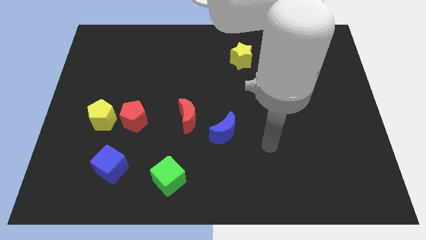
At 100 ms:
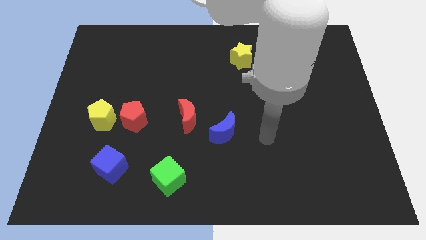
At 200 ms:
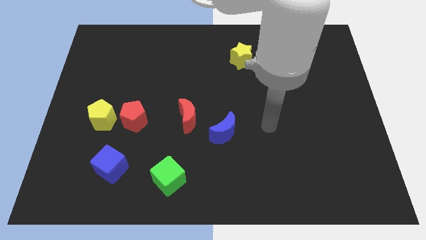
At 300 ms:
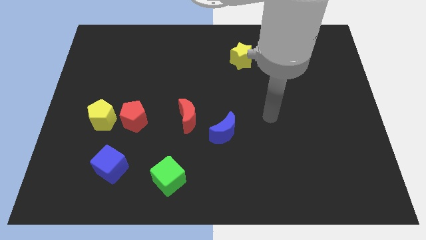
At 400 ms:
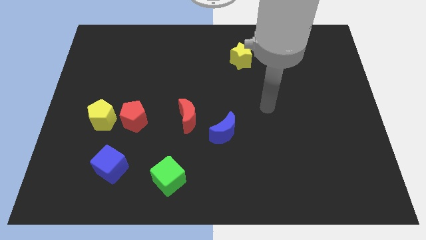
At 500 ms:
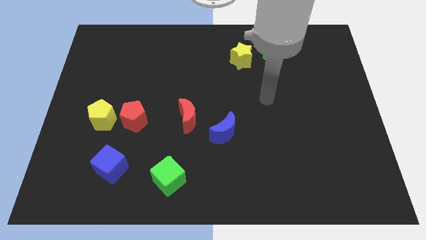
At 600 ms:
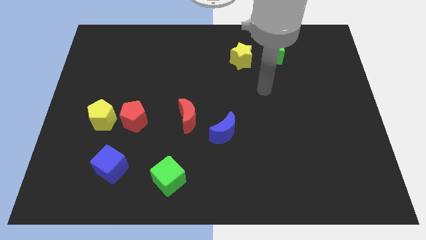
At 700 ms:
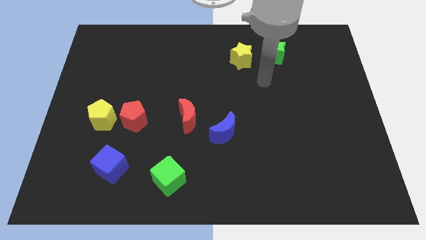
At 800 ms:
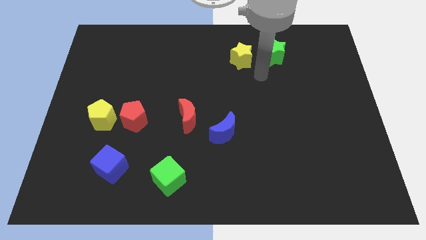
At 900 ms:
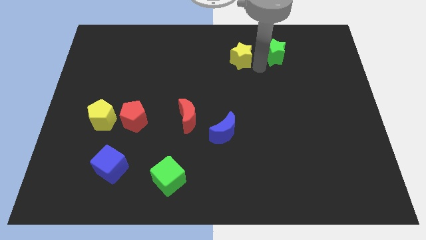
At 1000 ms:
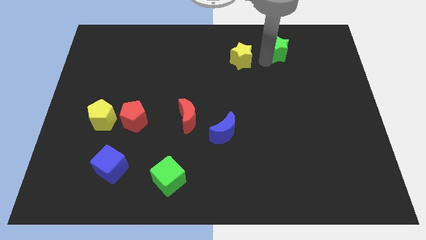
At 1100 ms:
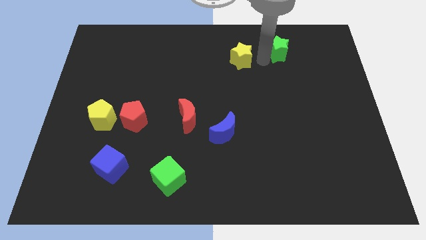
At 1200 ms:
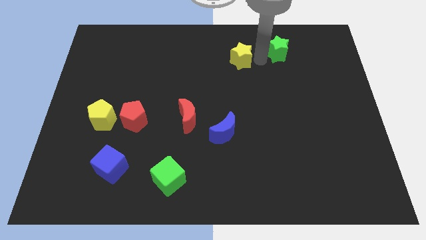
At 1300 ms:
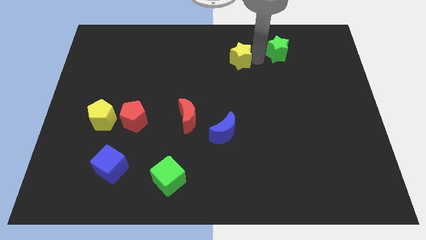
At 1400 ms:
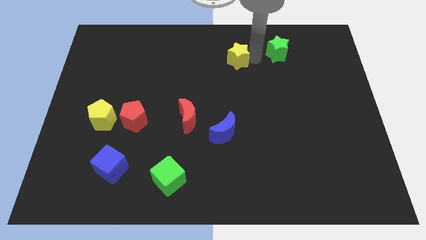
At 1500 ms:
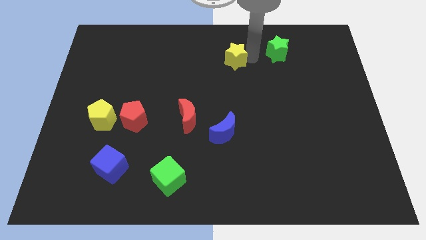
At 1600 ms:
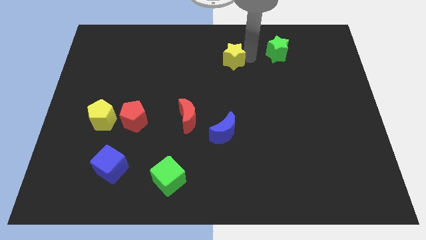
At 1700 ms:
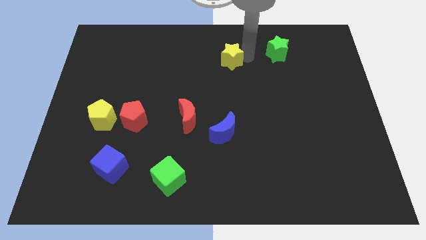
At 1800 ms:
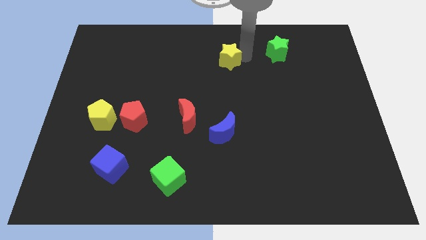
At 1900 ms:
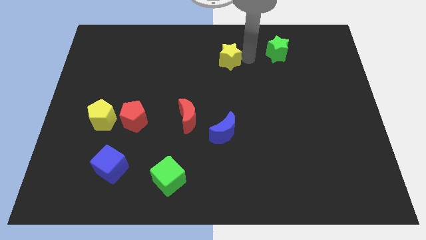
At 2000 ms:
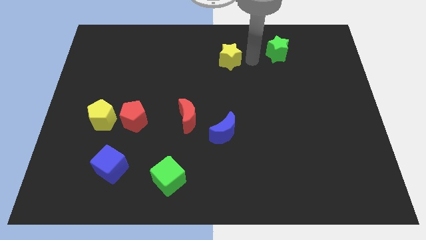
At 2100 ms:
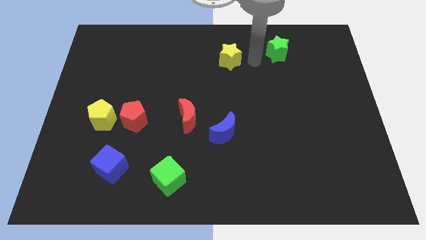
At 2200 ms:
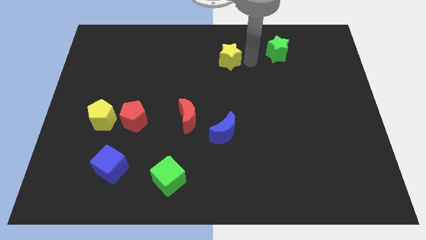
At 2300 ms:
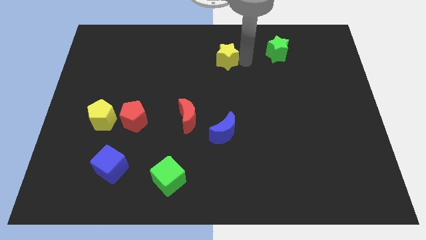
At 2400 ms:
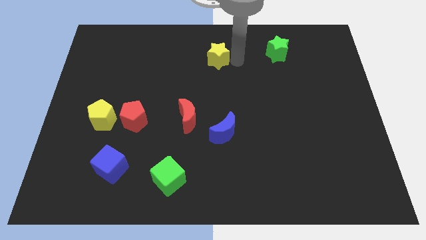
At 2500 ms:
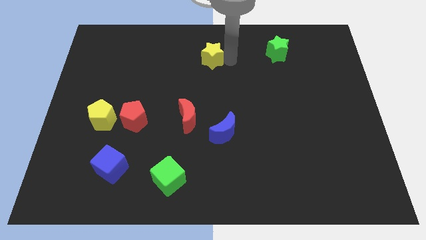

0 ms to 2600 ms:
slightly move the yellow star to the left

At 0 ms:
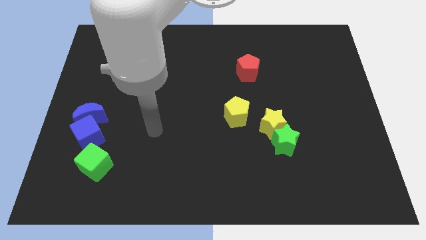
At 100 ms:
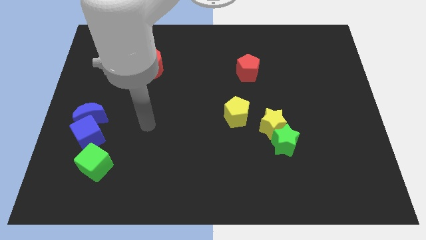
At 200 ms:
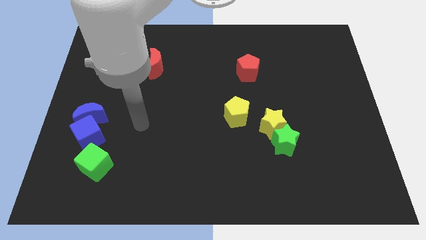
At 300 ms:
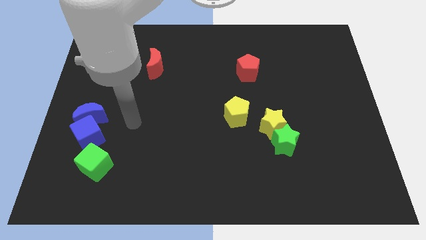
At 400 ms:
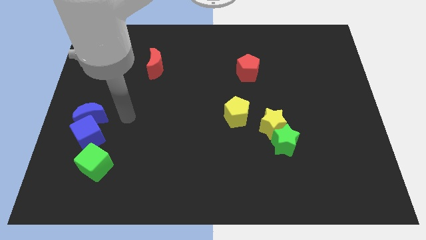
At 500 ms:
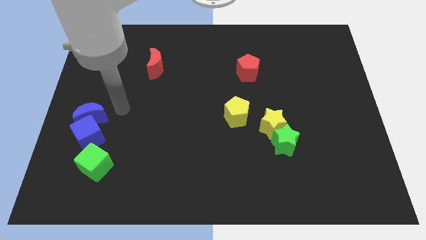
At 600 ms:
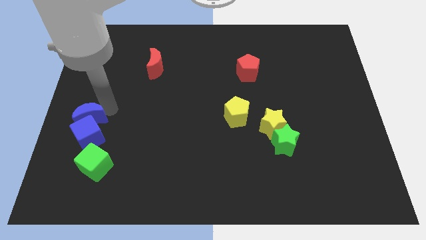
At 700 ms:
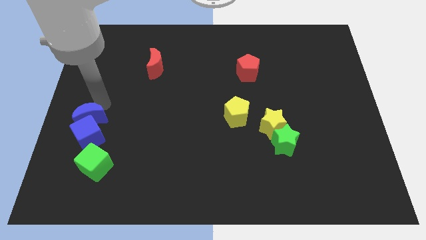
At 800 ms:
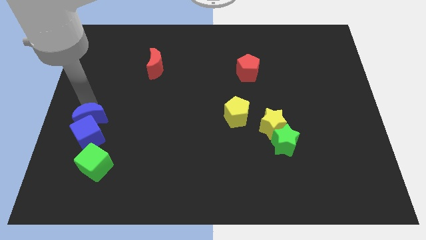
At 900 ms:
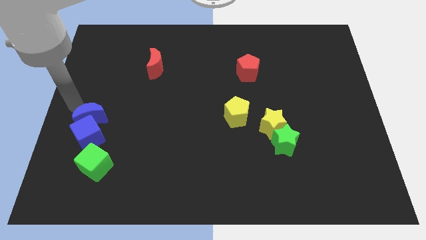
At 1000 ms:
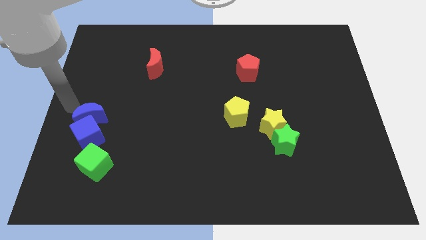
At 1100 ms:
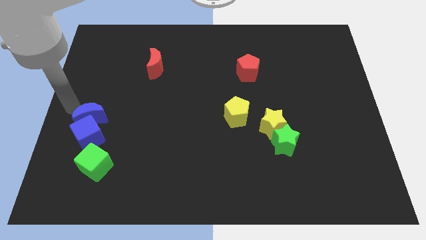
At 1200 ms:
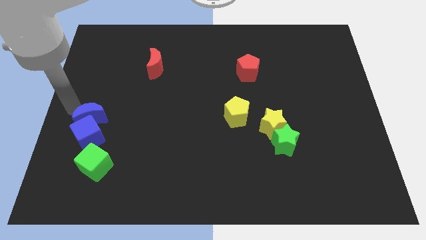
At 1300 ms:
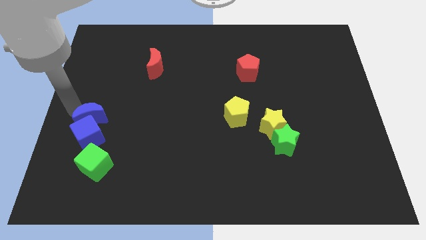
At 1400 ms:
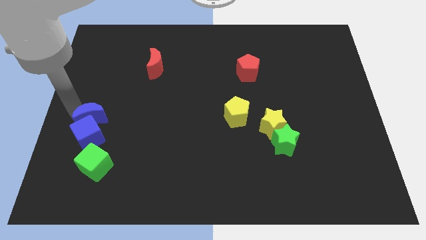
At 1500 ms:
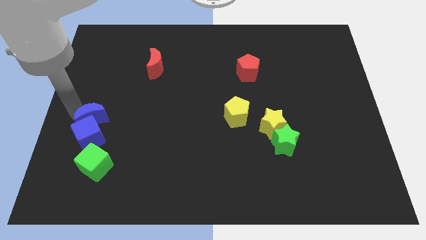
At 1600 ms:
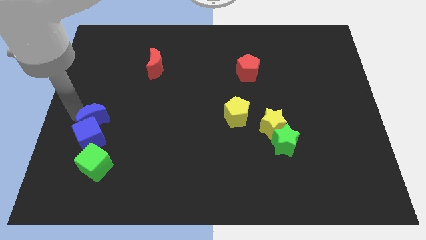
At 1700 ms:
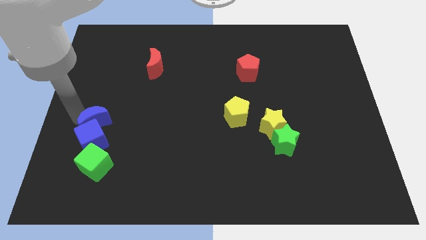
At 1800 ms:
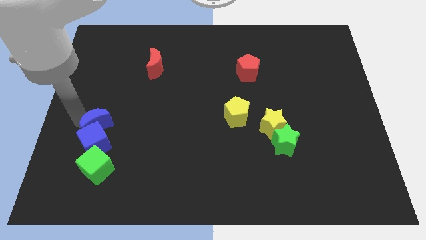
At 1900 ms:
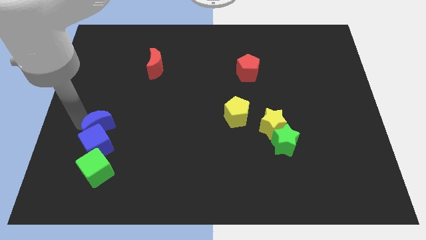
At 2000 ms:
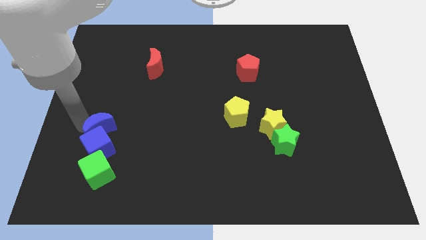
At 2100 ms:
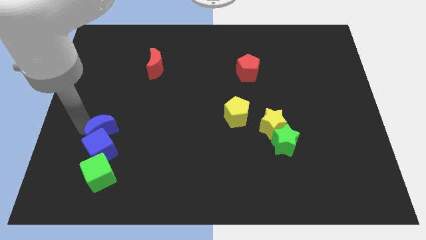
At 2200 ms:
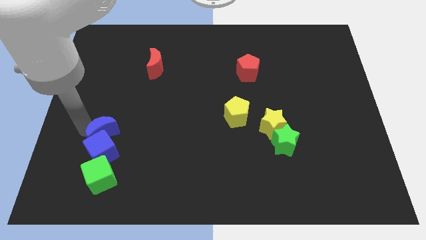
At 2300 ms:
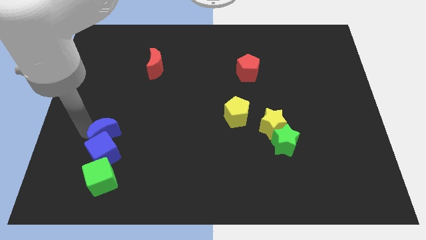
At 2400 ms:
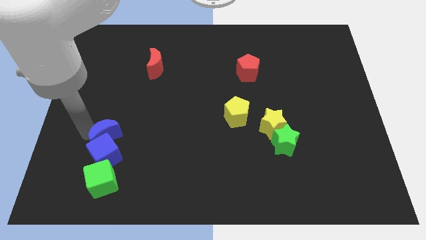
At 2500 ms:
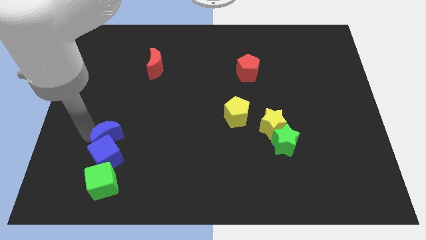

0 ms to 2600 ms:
slightly slide the blue moon downwards and to the right

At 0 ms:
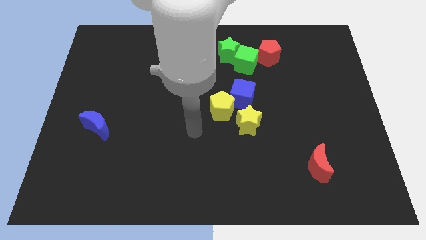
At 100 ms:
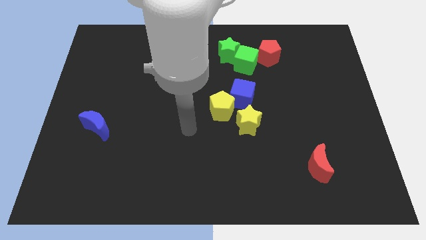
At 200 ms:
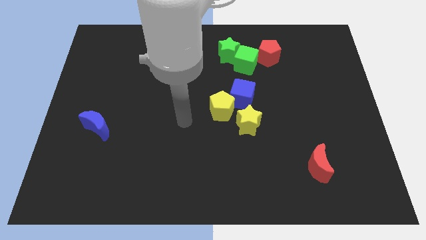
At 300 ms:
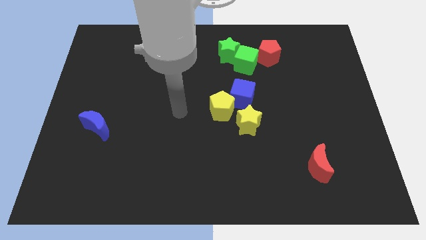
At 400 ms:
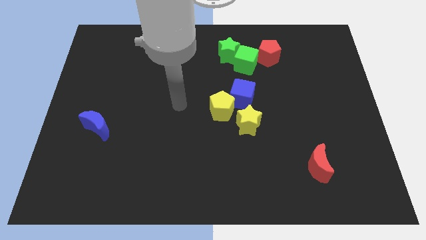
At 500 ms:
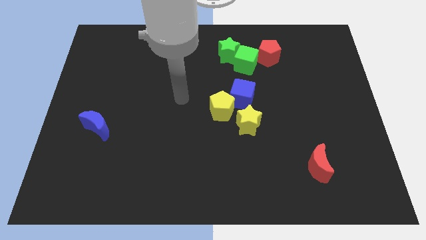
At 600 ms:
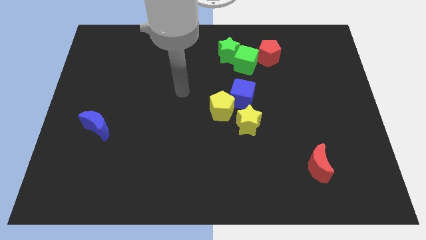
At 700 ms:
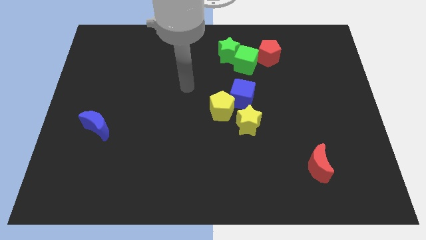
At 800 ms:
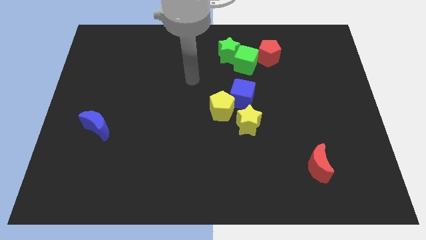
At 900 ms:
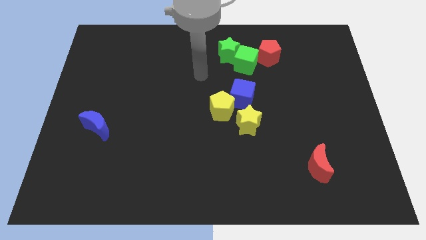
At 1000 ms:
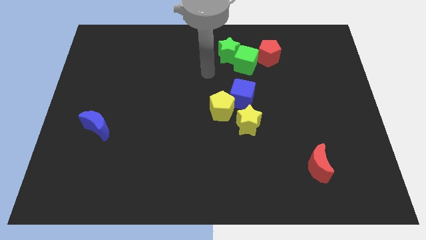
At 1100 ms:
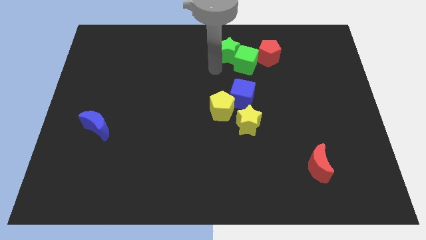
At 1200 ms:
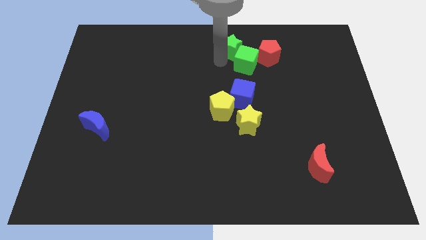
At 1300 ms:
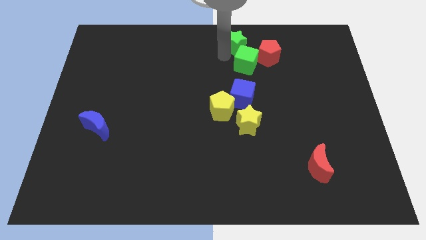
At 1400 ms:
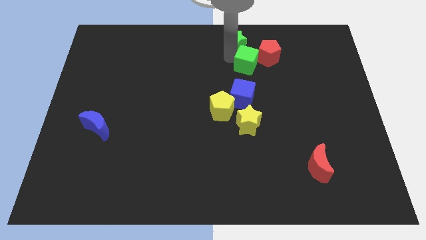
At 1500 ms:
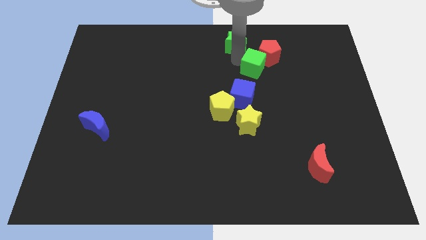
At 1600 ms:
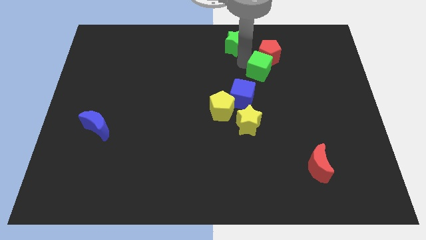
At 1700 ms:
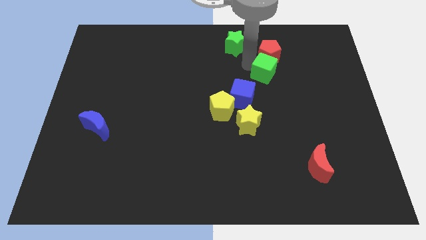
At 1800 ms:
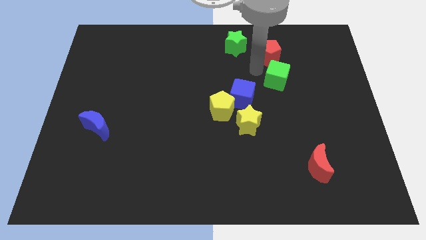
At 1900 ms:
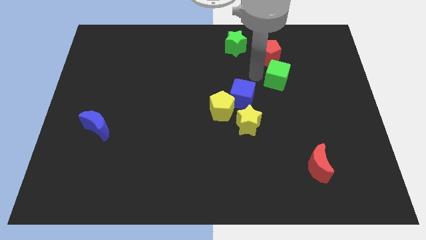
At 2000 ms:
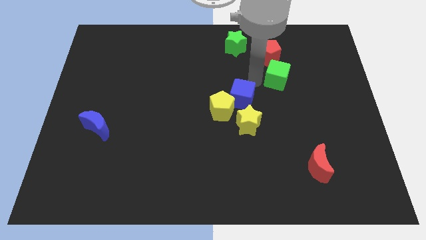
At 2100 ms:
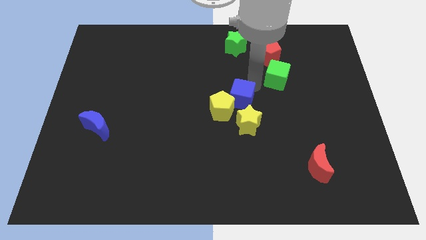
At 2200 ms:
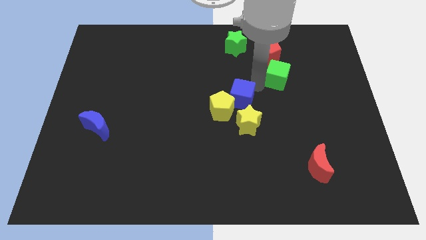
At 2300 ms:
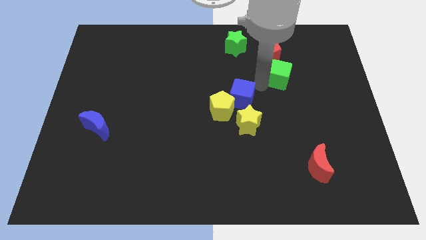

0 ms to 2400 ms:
slide the green cube slightly right

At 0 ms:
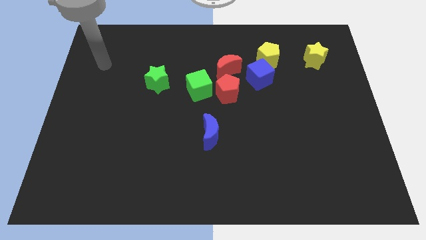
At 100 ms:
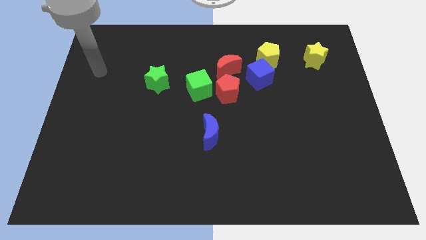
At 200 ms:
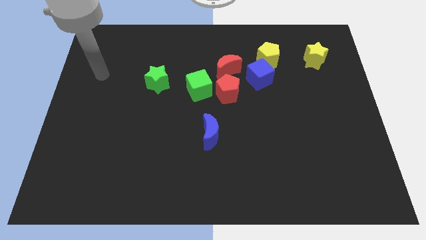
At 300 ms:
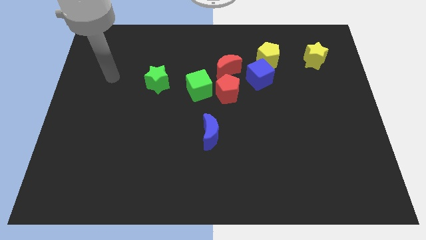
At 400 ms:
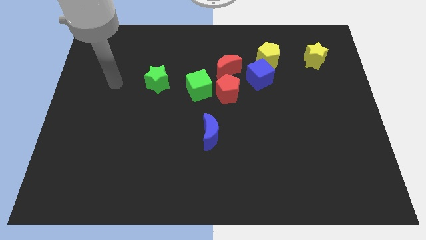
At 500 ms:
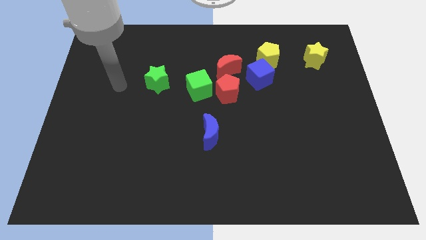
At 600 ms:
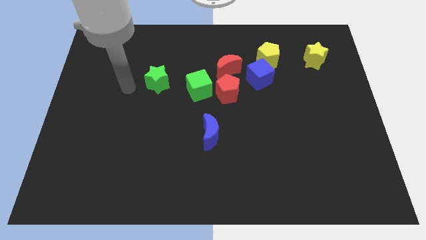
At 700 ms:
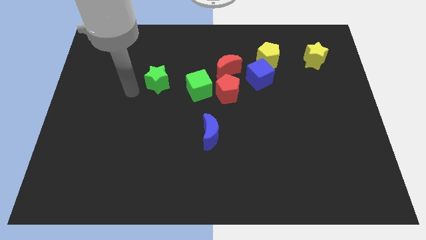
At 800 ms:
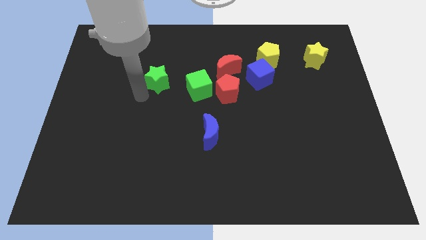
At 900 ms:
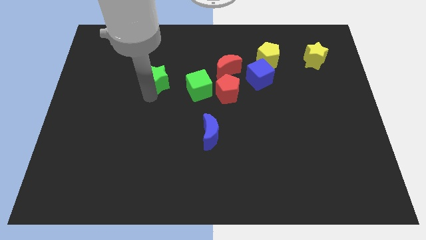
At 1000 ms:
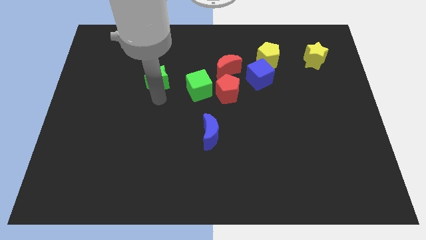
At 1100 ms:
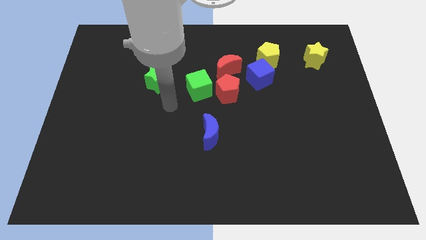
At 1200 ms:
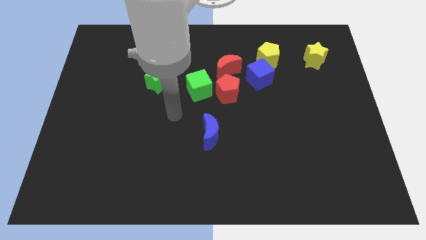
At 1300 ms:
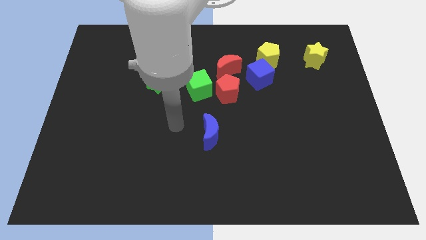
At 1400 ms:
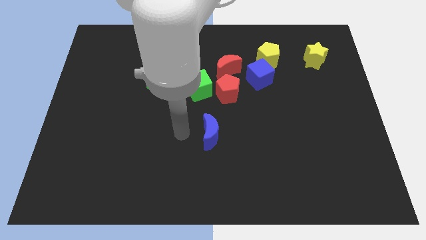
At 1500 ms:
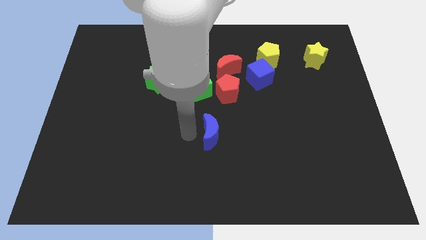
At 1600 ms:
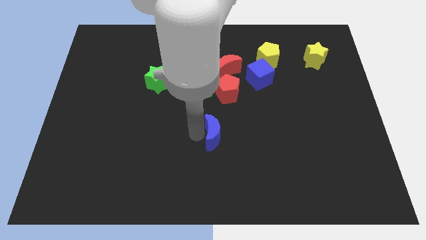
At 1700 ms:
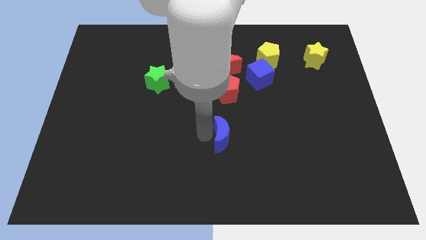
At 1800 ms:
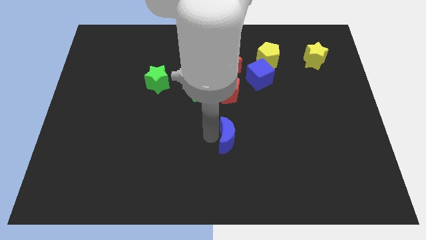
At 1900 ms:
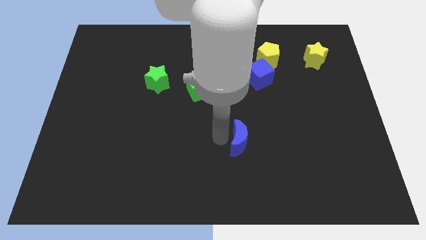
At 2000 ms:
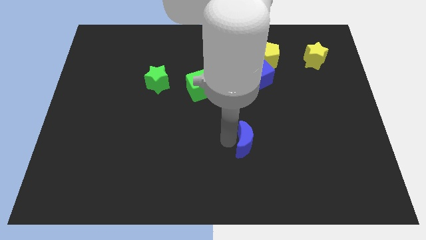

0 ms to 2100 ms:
move the blue moon a bit right
